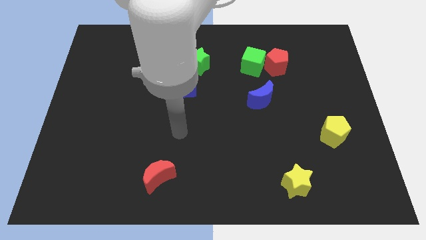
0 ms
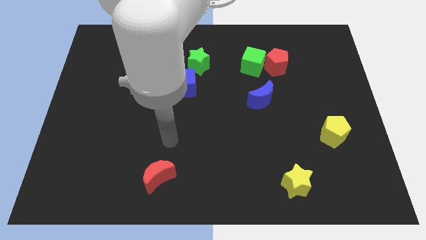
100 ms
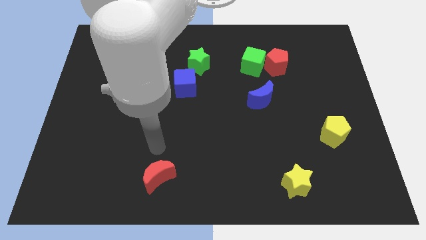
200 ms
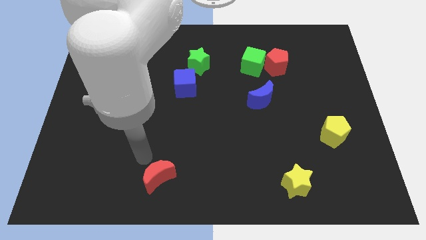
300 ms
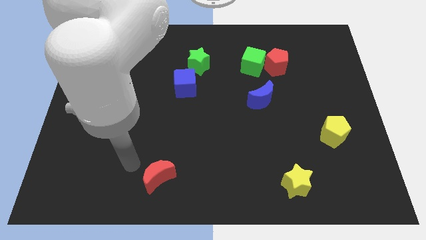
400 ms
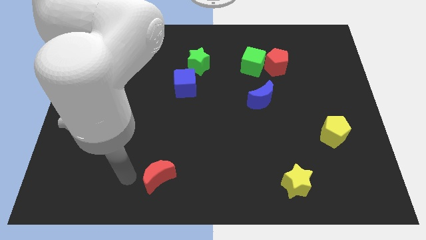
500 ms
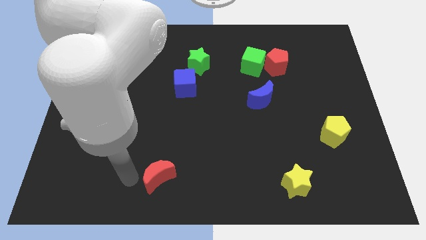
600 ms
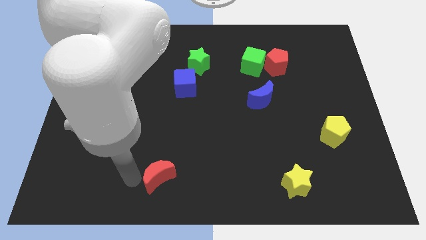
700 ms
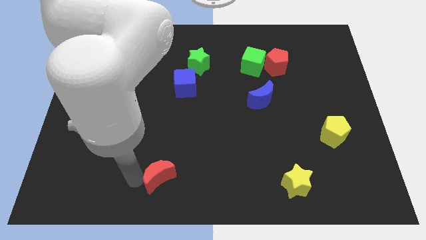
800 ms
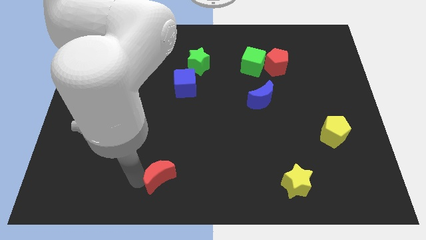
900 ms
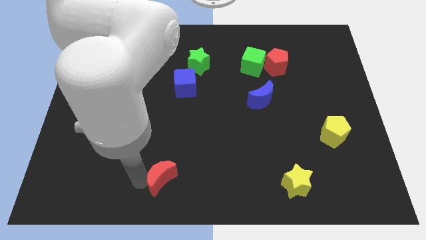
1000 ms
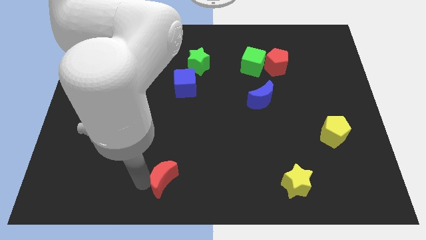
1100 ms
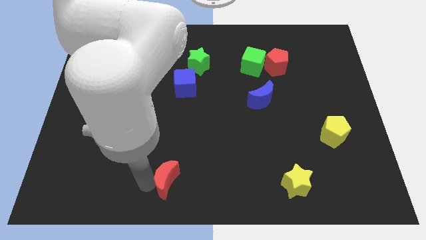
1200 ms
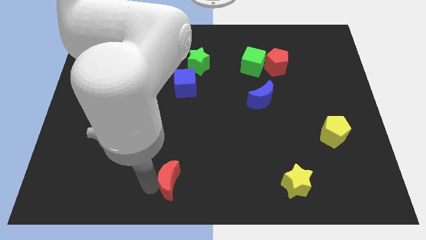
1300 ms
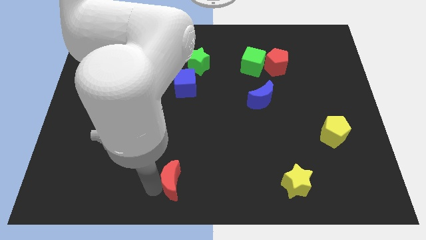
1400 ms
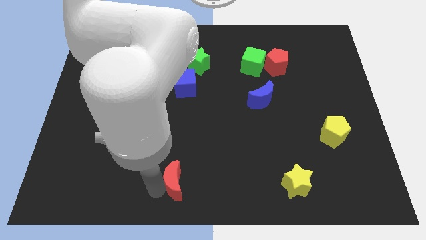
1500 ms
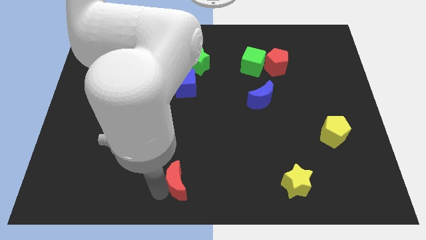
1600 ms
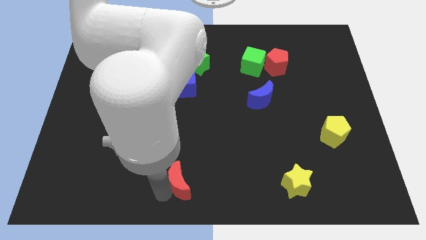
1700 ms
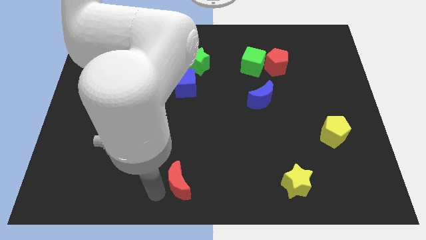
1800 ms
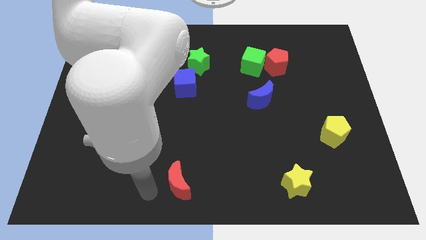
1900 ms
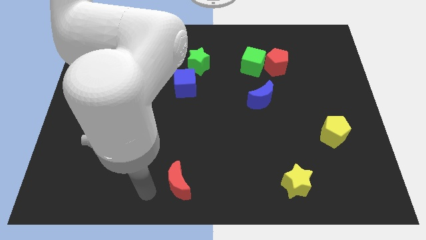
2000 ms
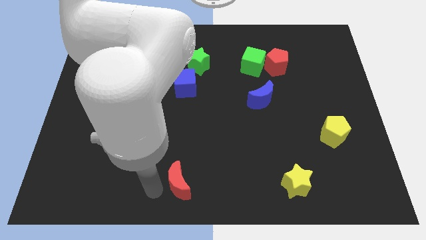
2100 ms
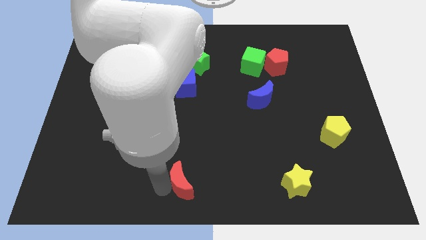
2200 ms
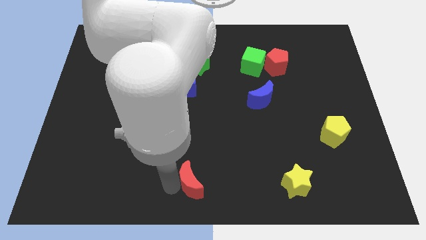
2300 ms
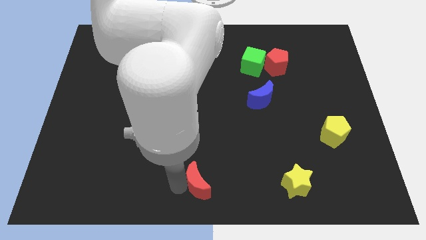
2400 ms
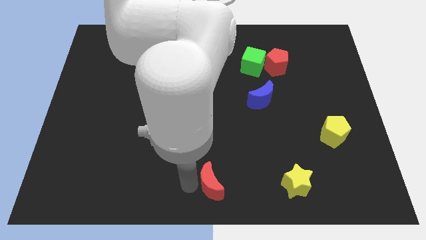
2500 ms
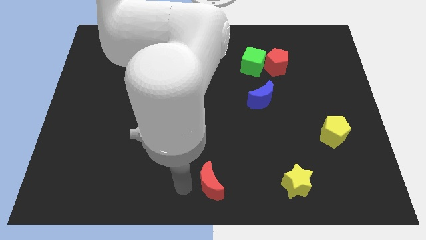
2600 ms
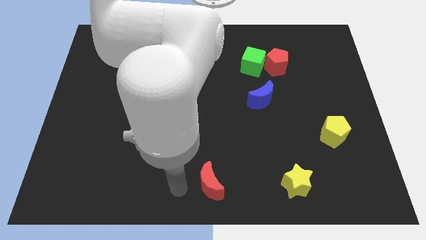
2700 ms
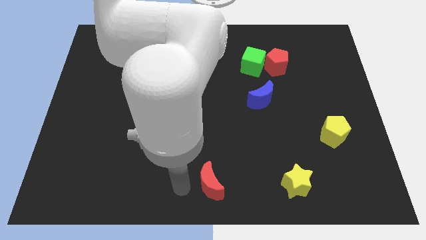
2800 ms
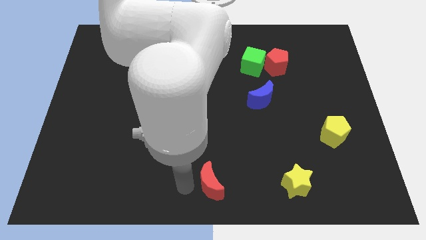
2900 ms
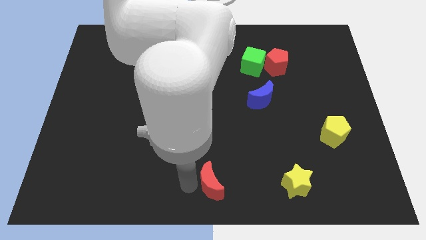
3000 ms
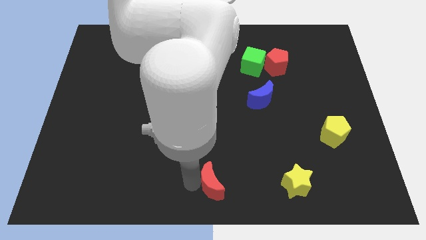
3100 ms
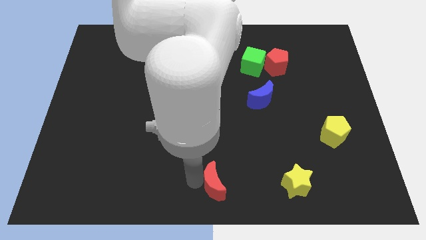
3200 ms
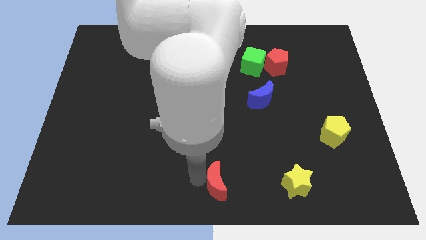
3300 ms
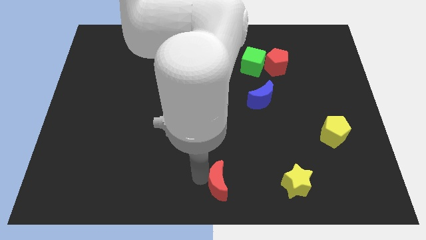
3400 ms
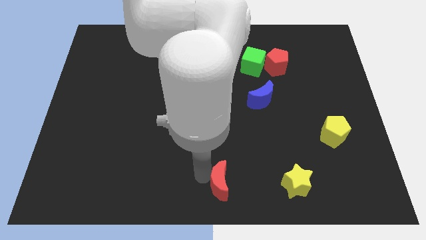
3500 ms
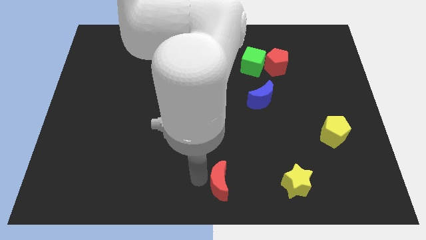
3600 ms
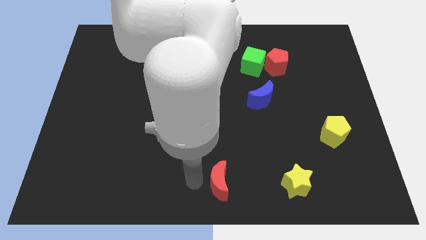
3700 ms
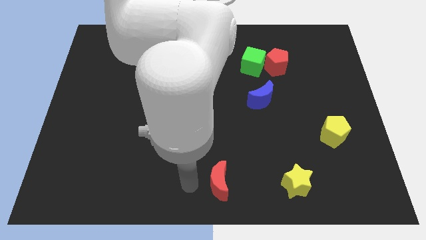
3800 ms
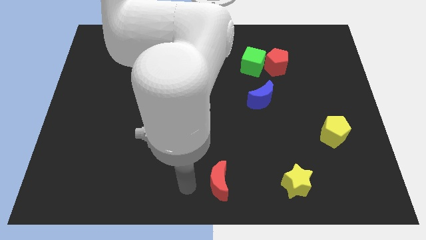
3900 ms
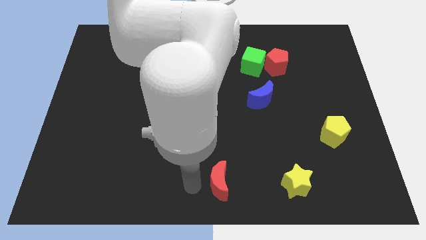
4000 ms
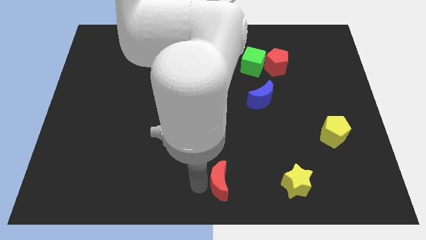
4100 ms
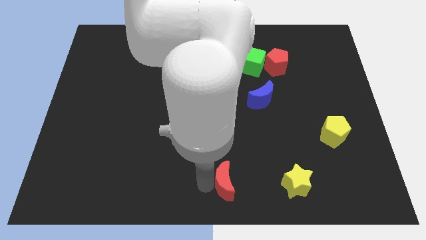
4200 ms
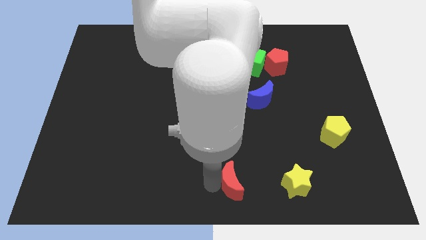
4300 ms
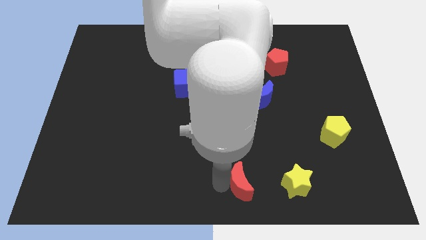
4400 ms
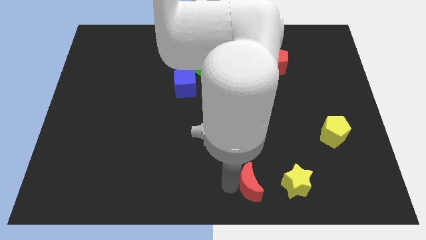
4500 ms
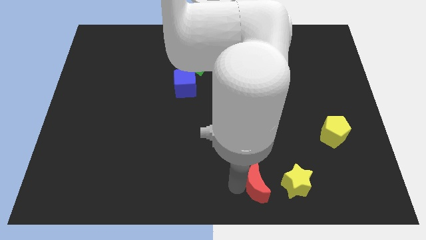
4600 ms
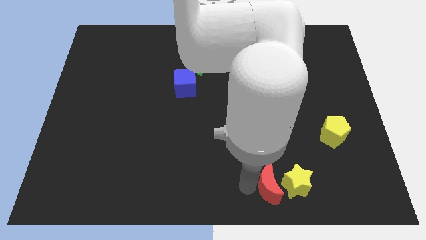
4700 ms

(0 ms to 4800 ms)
push the red moon close to the yellow star

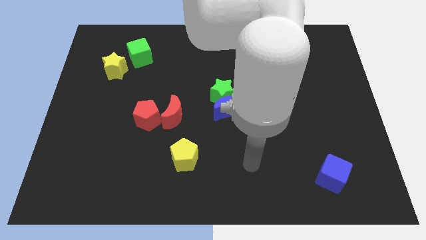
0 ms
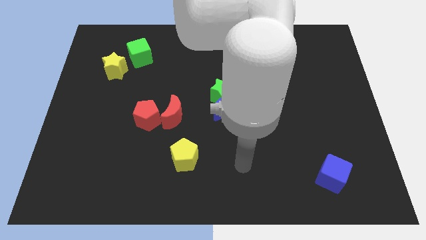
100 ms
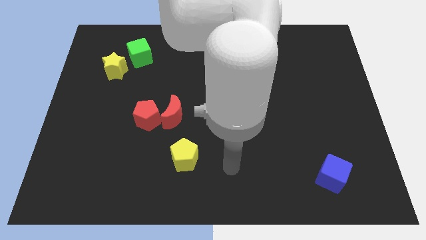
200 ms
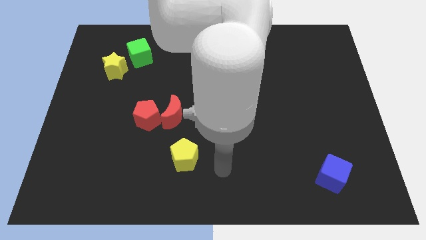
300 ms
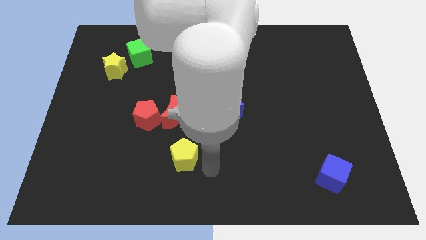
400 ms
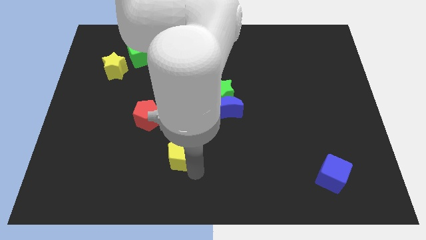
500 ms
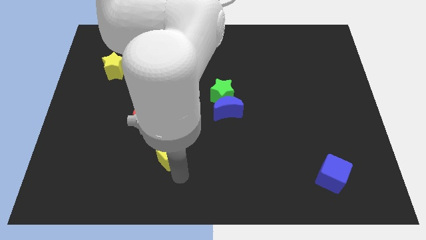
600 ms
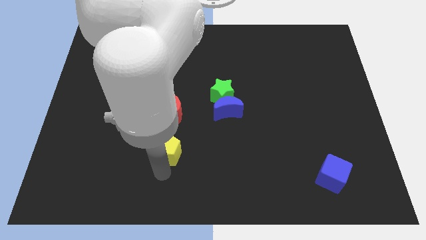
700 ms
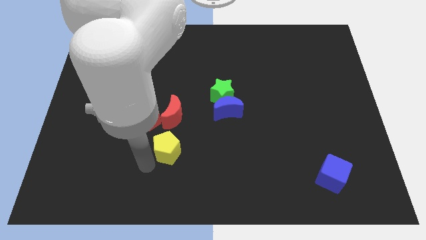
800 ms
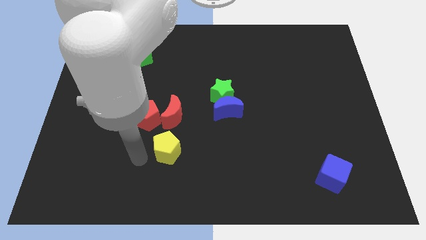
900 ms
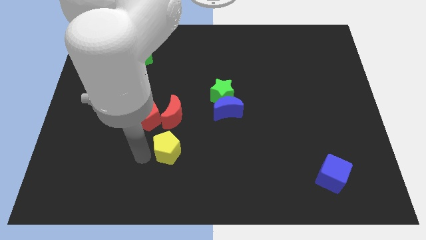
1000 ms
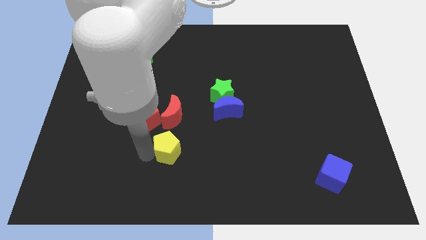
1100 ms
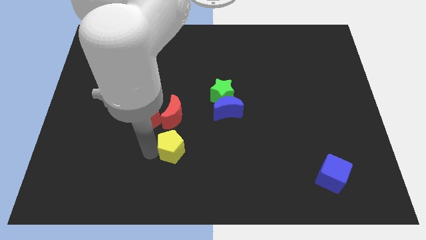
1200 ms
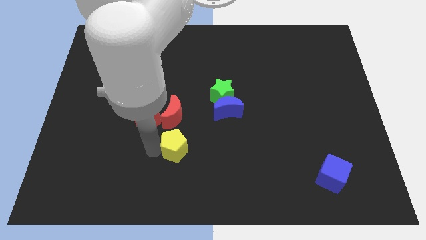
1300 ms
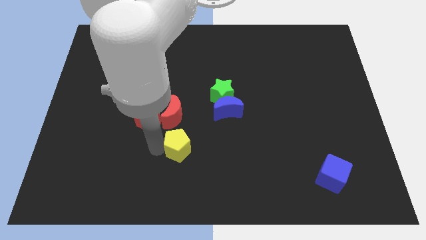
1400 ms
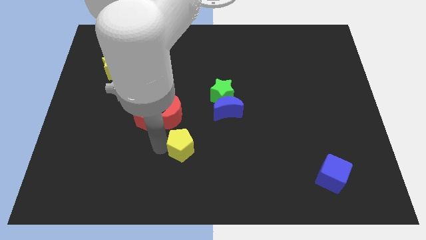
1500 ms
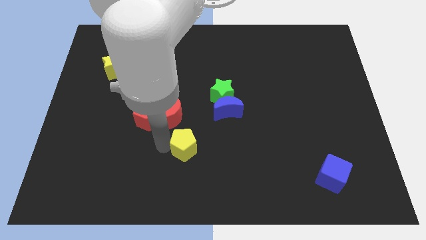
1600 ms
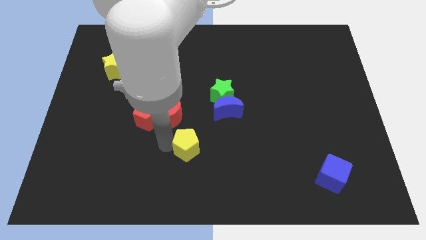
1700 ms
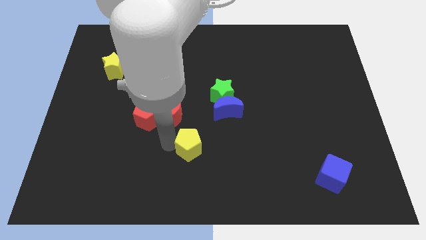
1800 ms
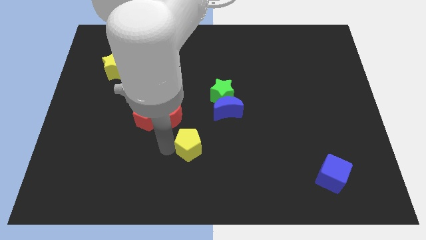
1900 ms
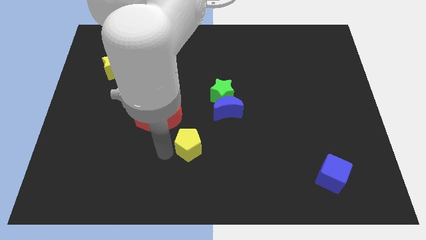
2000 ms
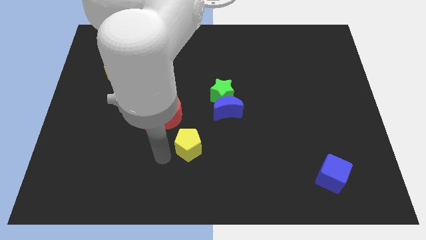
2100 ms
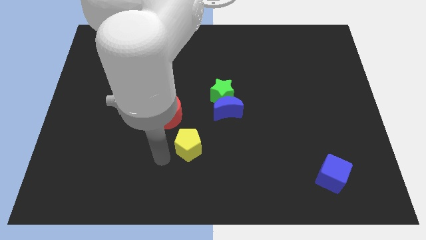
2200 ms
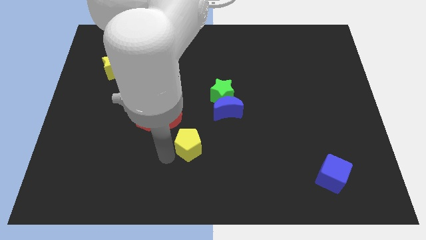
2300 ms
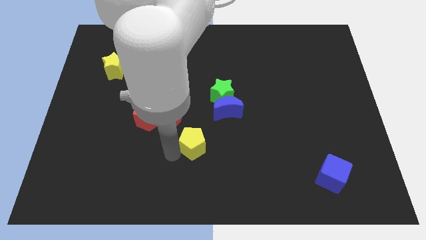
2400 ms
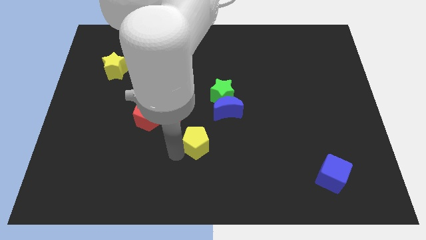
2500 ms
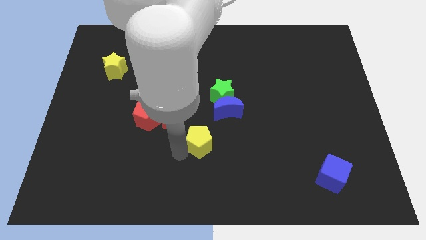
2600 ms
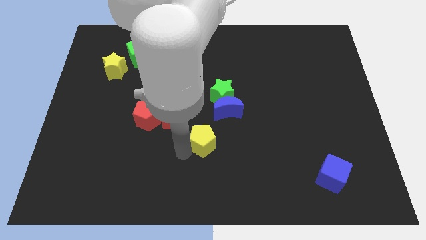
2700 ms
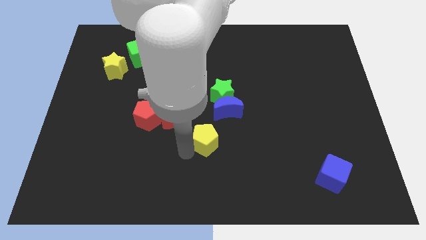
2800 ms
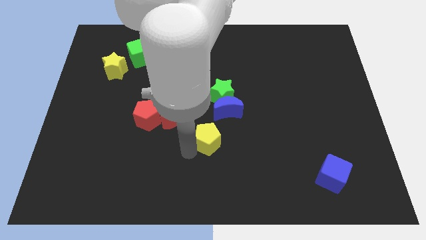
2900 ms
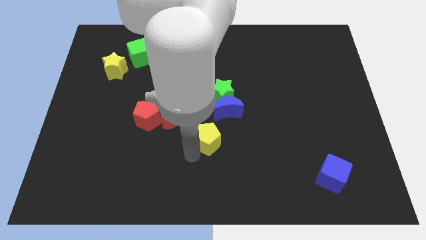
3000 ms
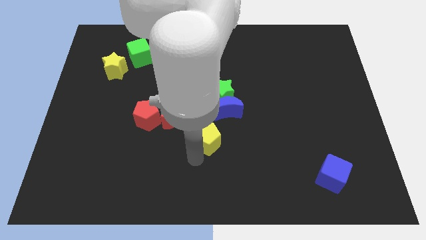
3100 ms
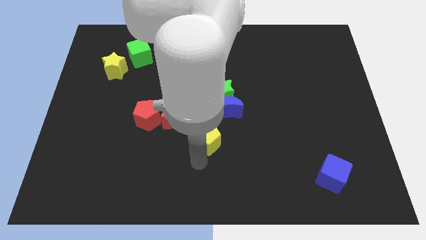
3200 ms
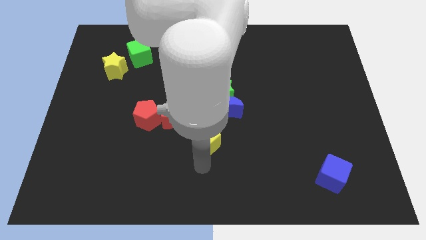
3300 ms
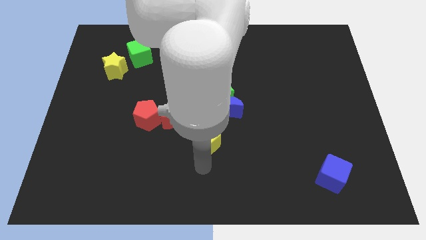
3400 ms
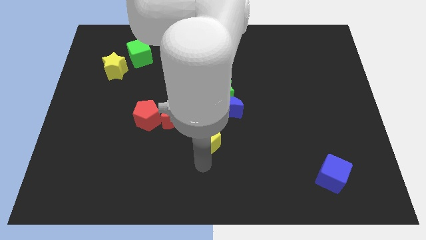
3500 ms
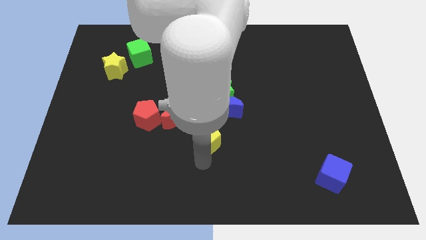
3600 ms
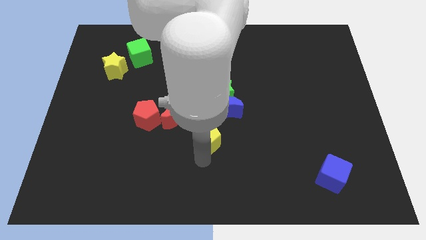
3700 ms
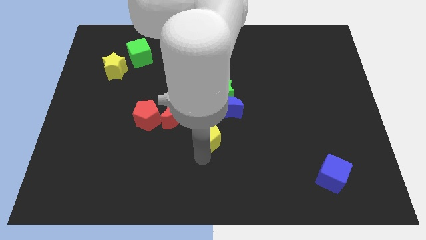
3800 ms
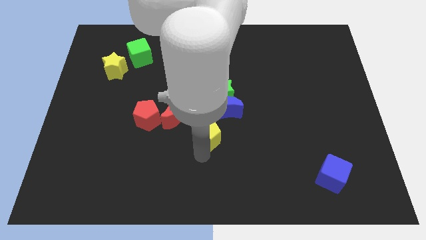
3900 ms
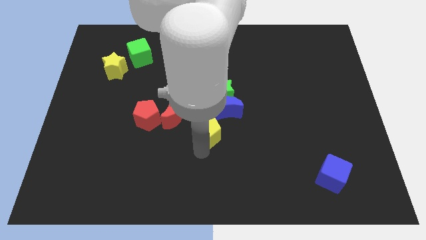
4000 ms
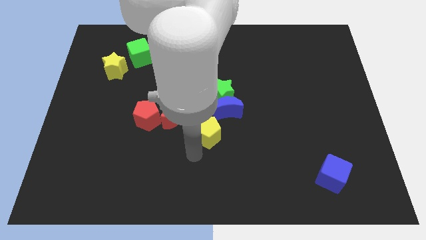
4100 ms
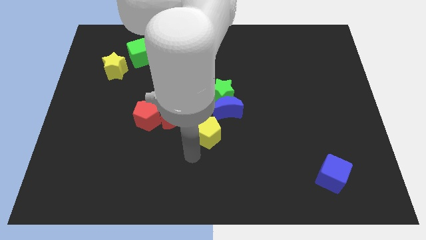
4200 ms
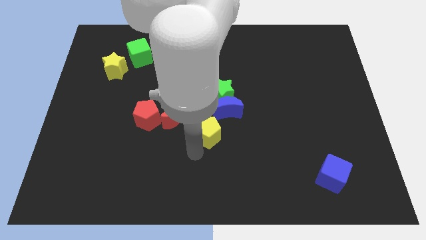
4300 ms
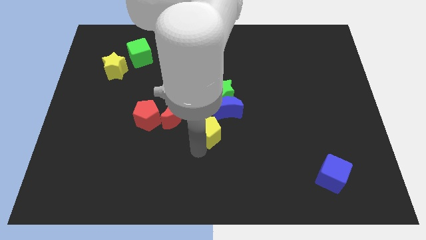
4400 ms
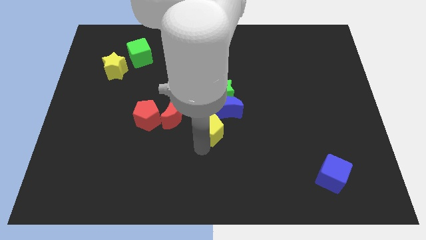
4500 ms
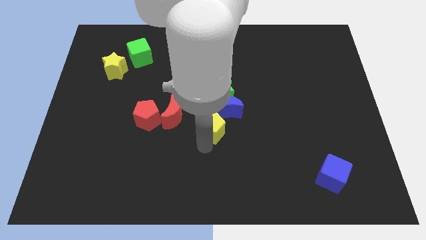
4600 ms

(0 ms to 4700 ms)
put the yellow pentagon next to the blue moon
